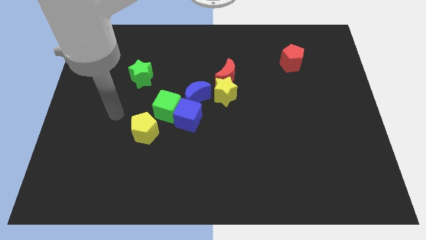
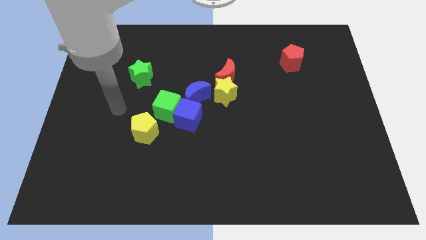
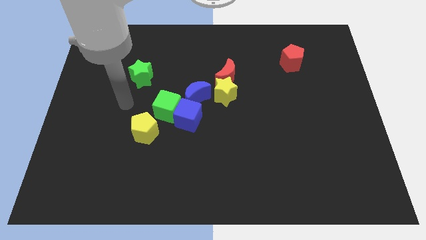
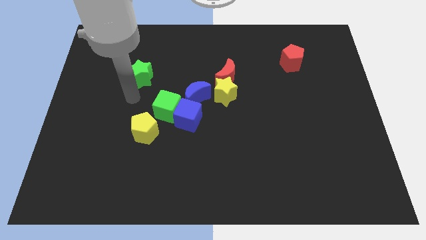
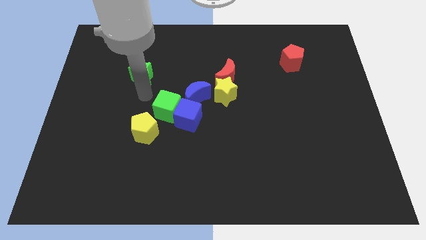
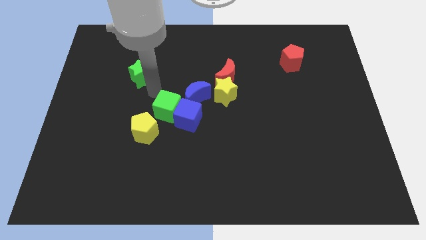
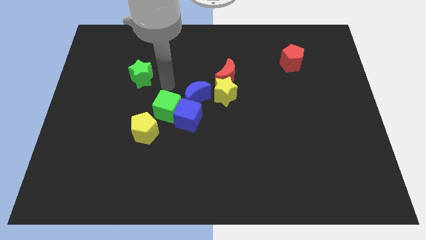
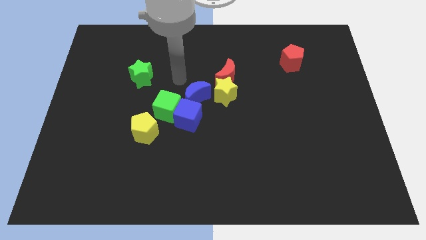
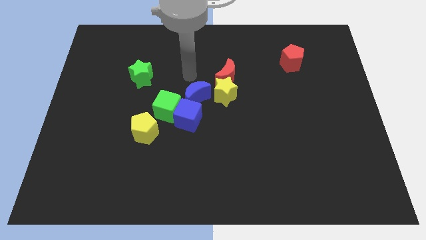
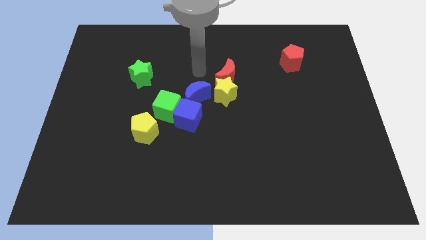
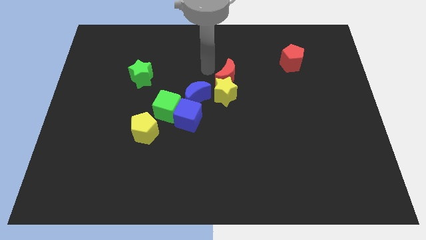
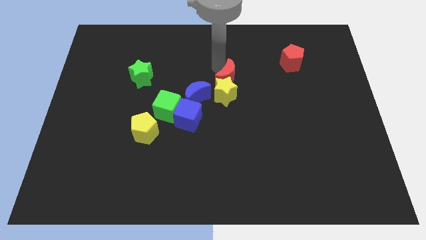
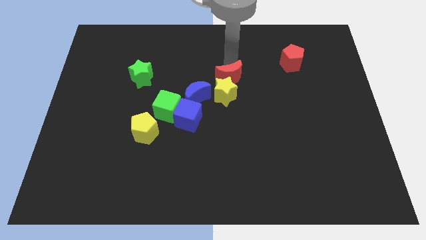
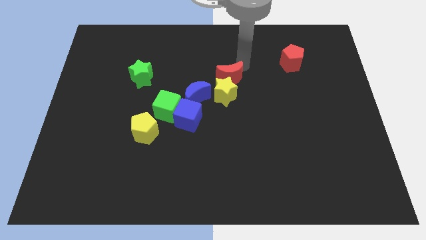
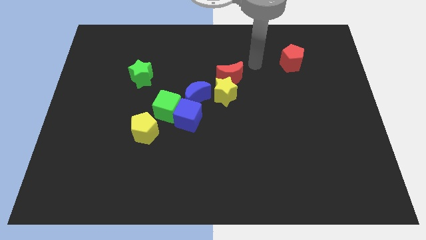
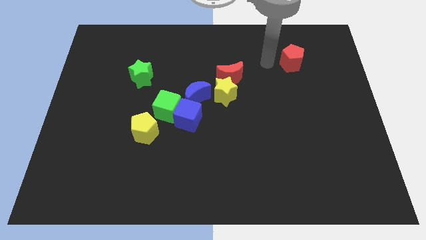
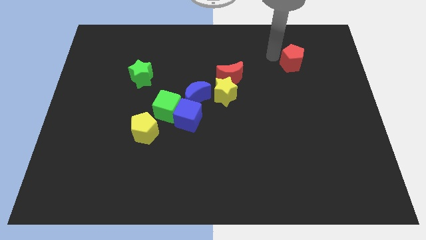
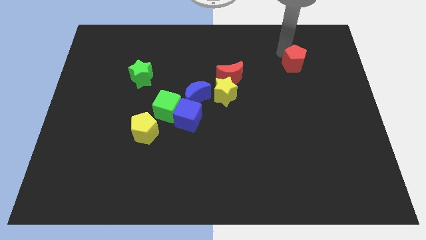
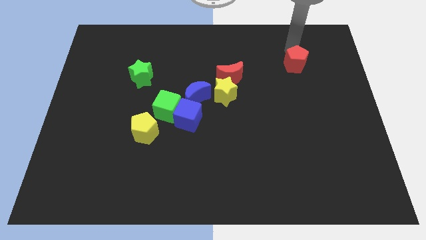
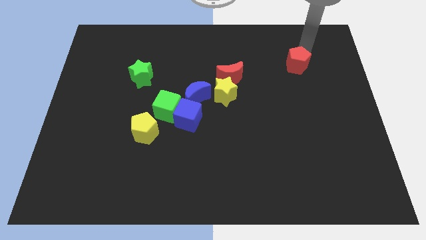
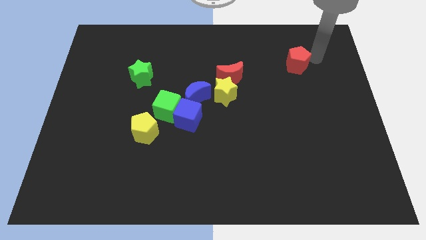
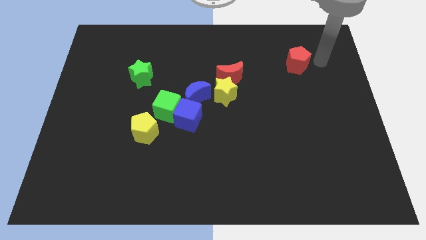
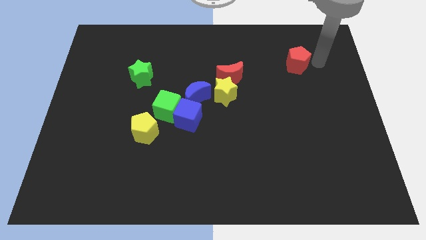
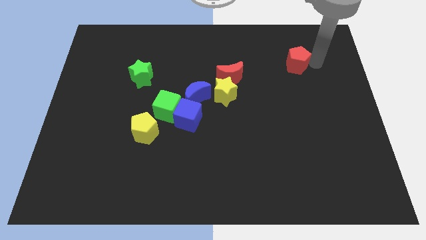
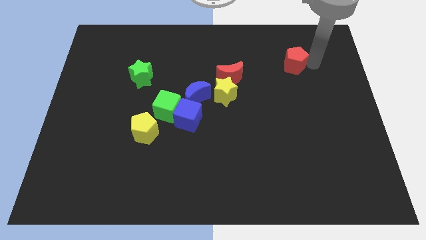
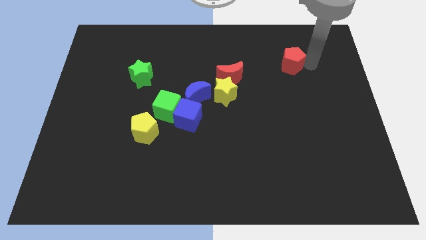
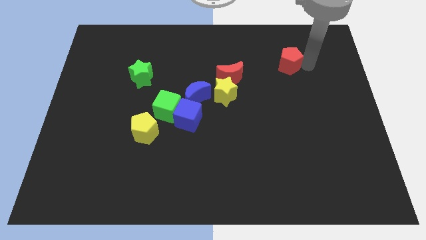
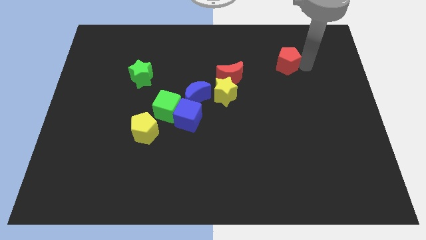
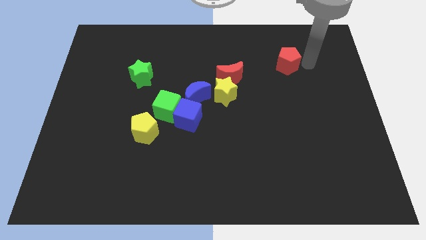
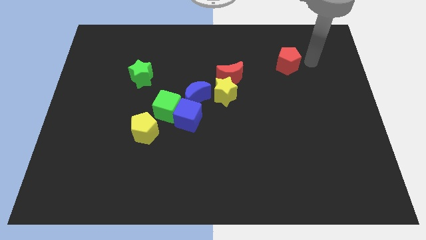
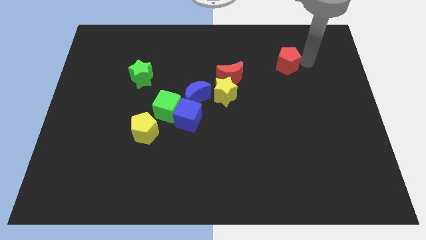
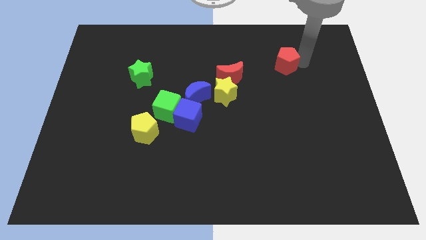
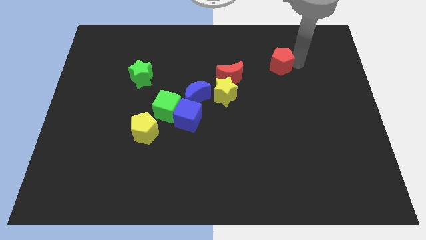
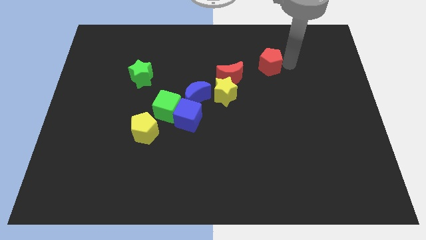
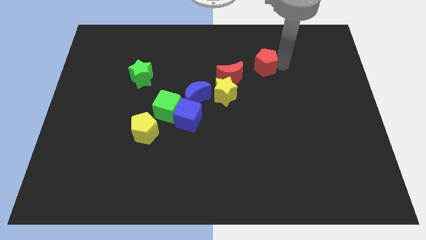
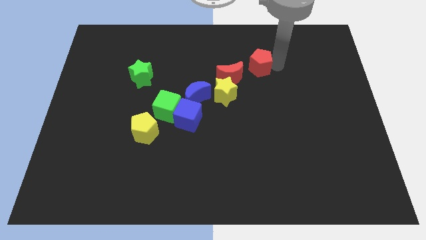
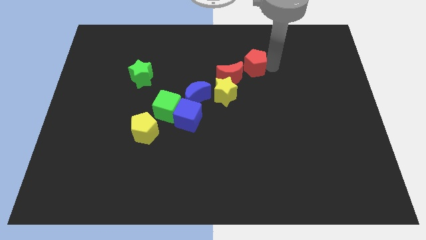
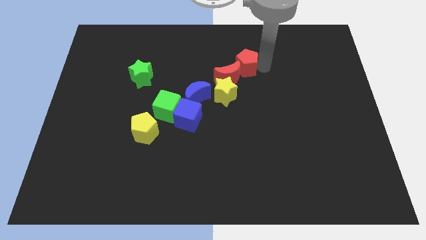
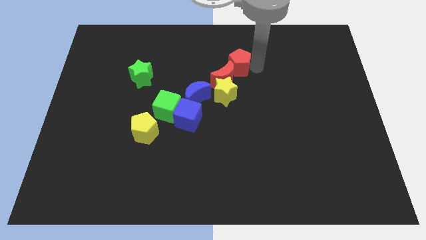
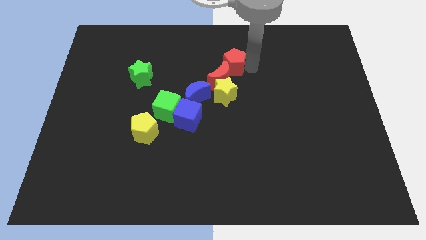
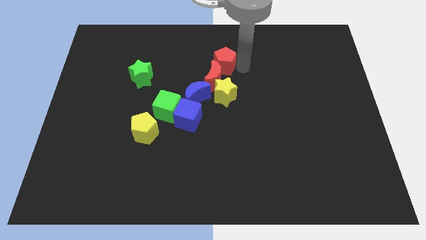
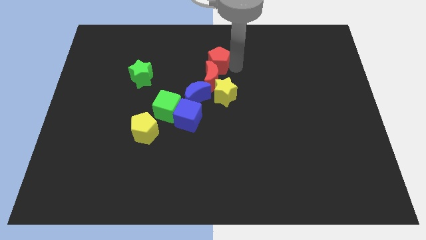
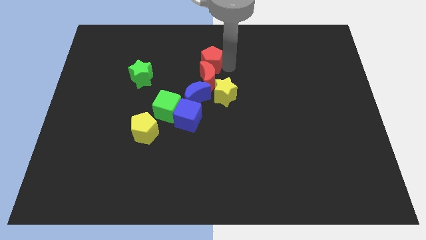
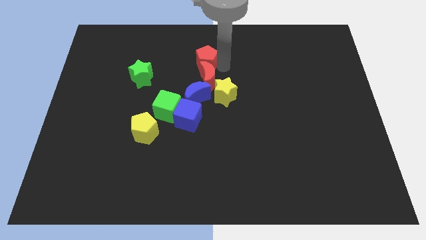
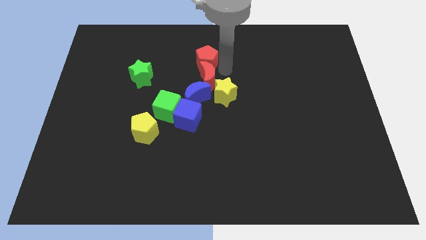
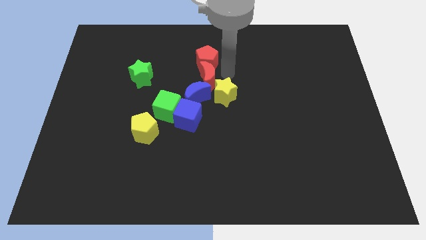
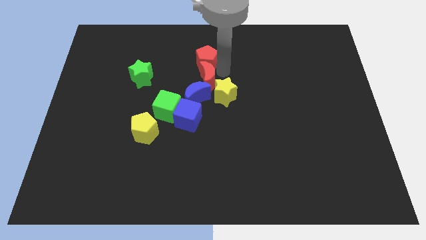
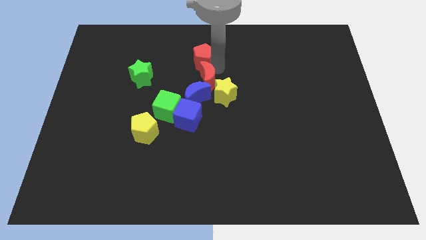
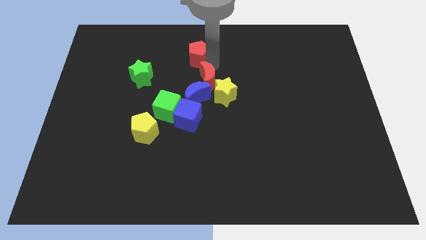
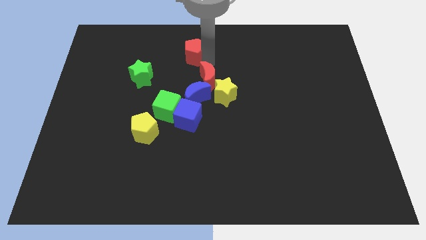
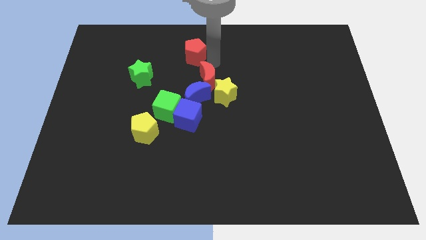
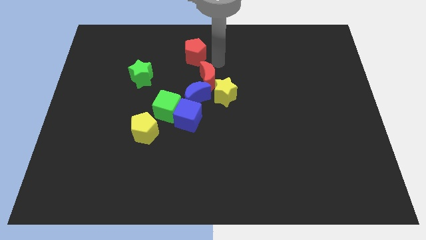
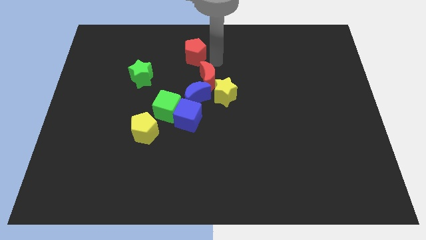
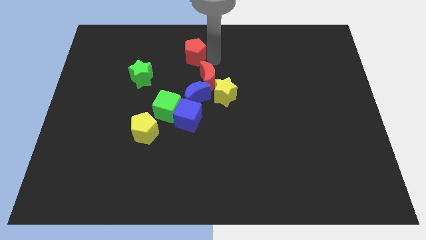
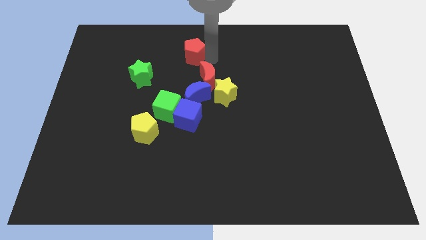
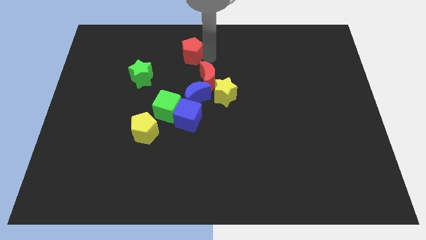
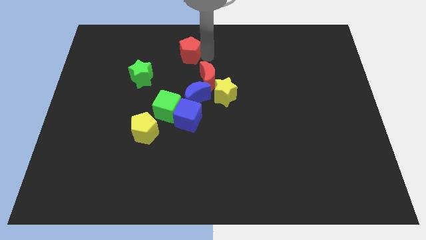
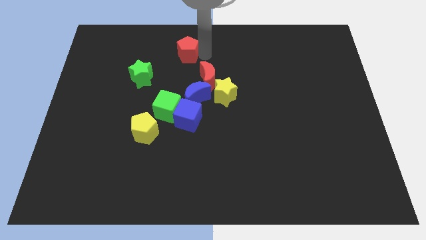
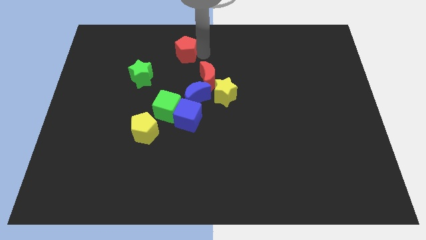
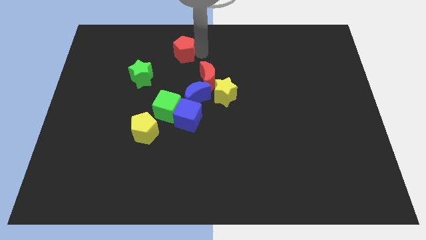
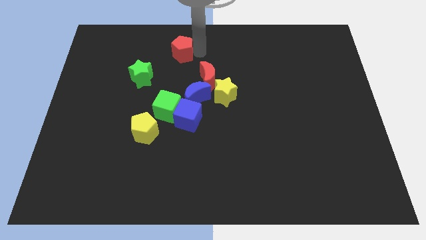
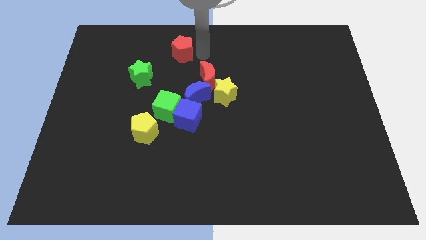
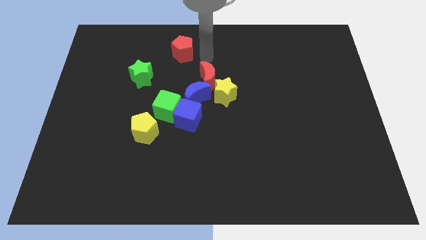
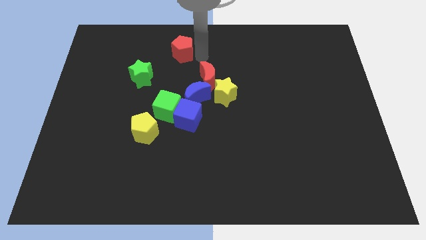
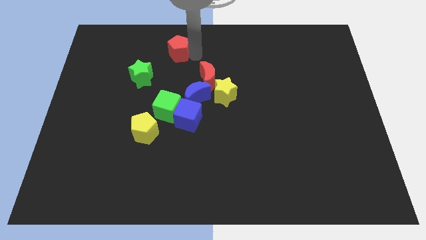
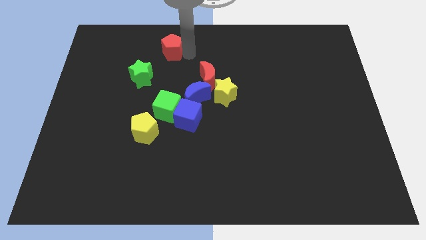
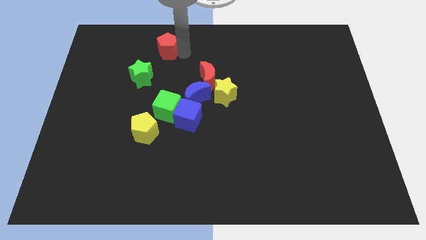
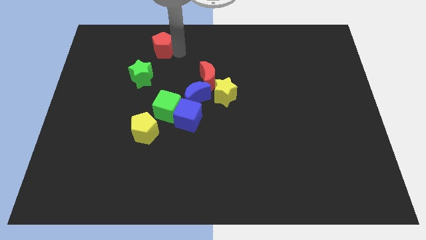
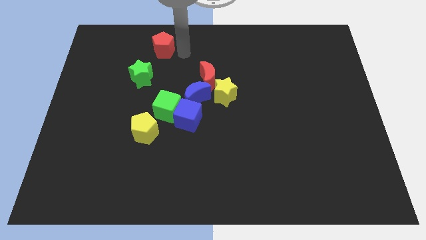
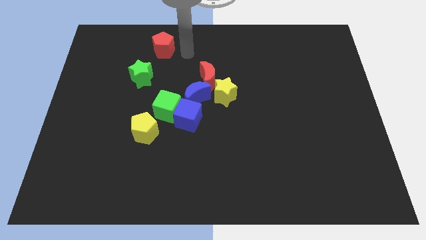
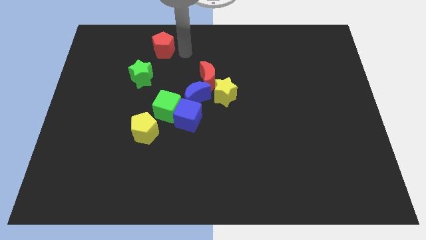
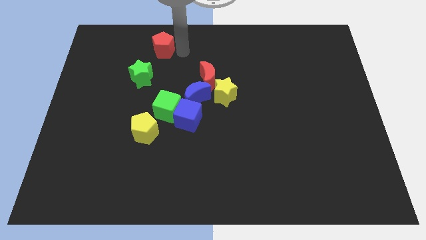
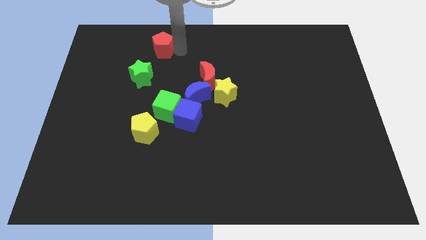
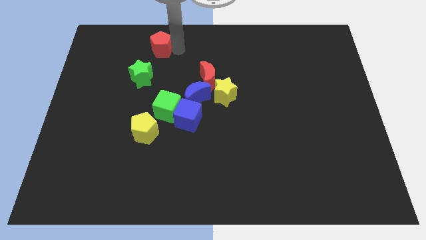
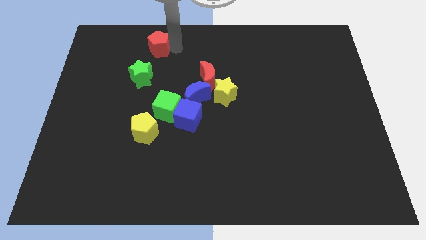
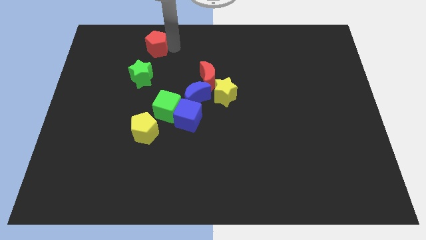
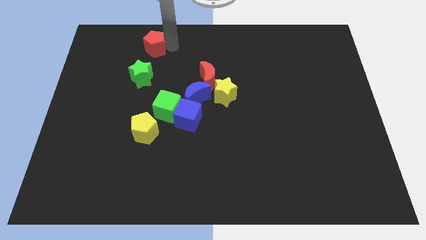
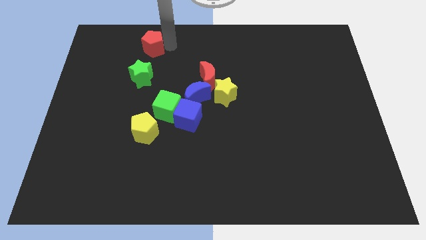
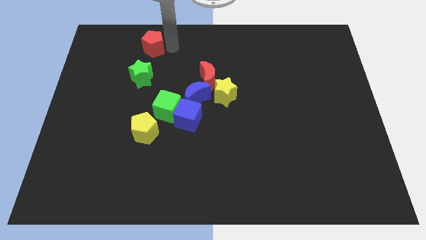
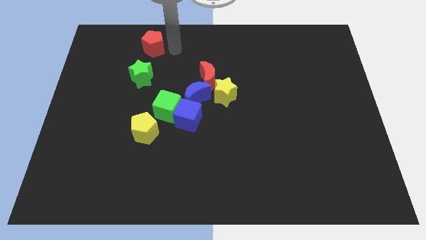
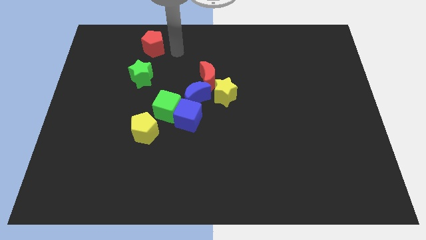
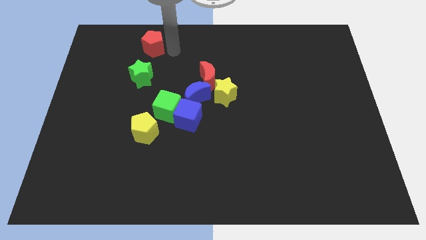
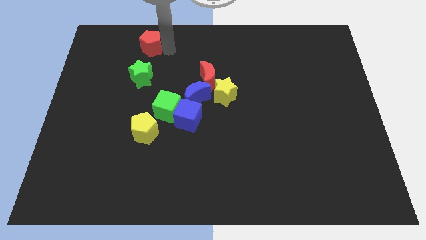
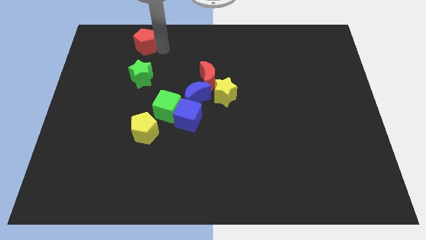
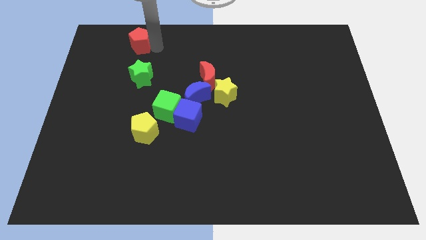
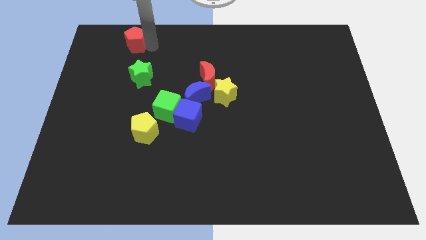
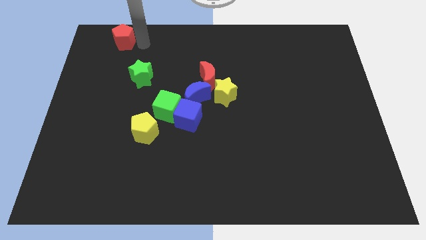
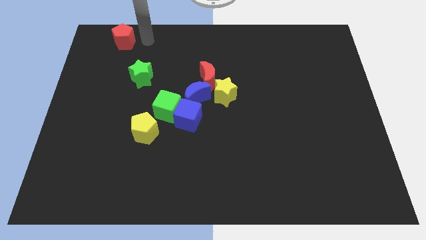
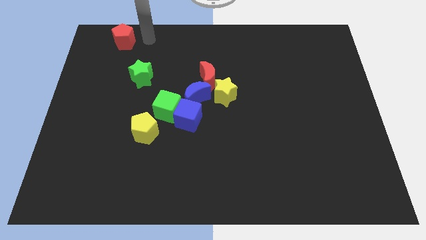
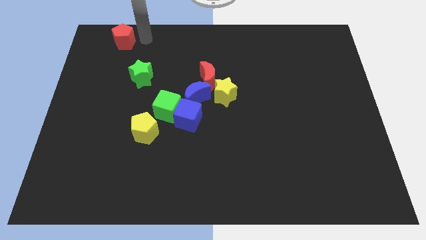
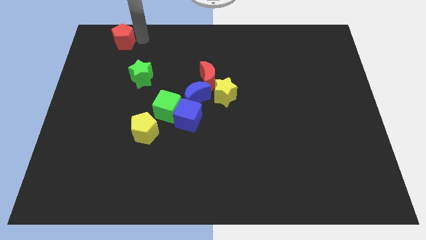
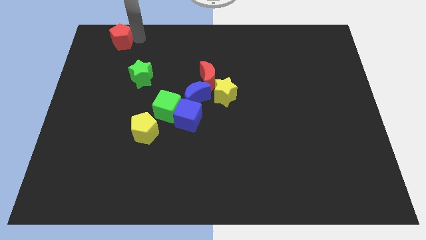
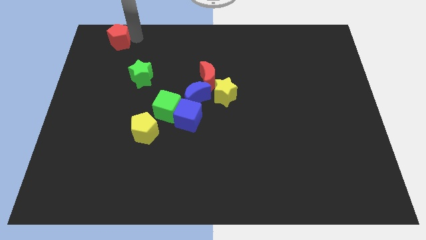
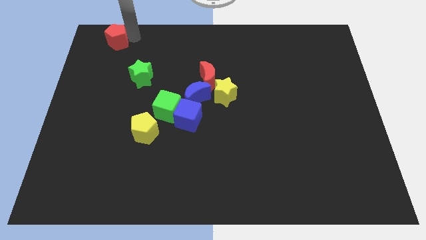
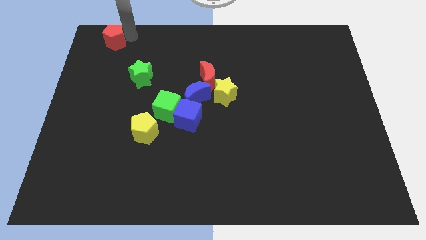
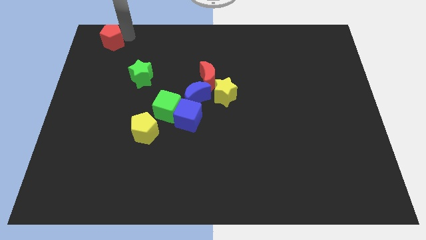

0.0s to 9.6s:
move the red pentagon to the top left corner
